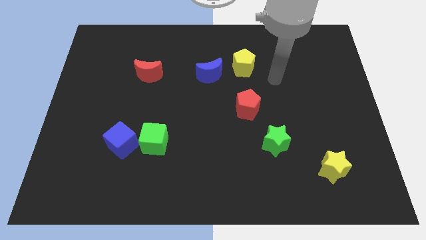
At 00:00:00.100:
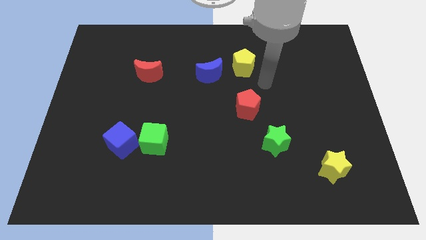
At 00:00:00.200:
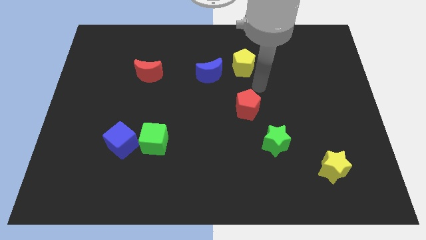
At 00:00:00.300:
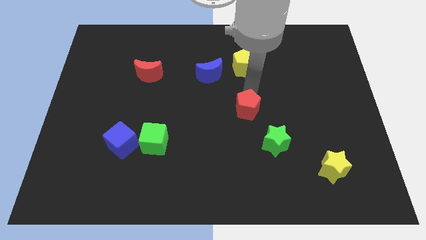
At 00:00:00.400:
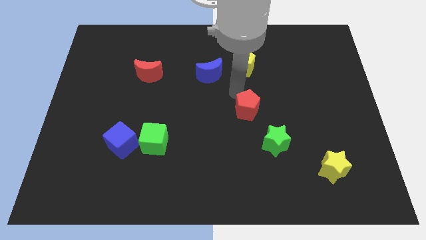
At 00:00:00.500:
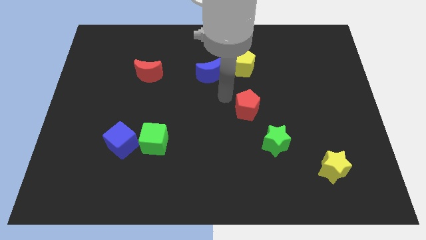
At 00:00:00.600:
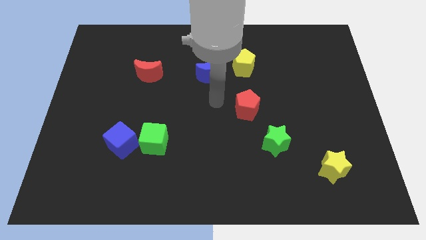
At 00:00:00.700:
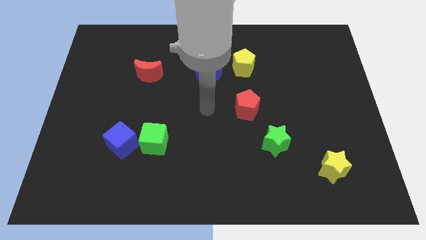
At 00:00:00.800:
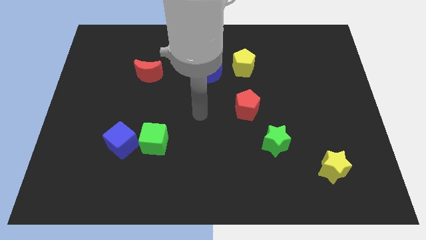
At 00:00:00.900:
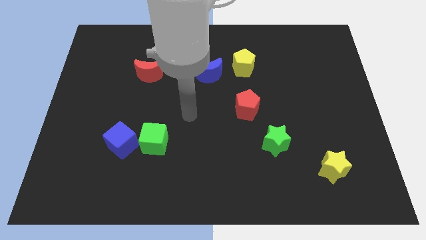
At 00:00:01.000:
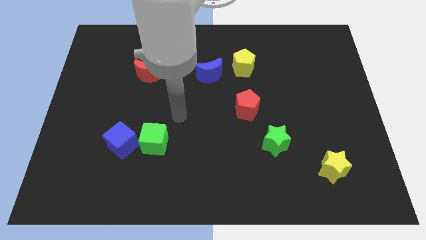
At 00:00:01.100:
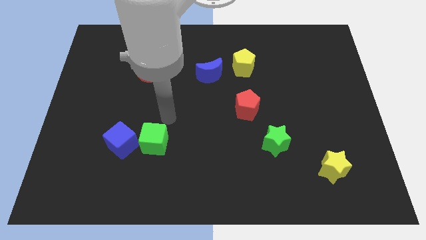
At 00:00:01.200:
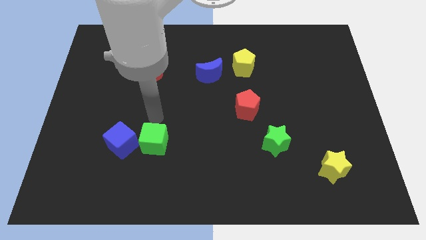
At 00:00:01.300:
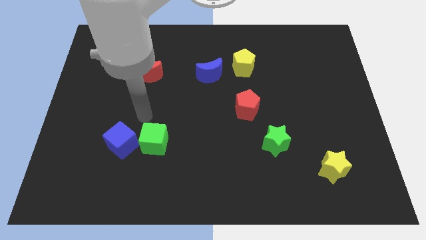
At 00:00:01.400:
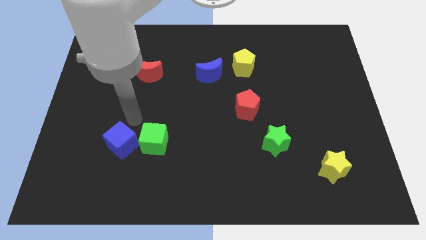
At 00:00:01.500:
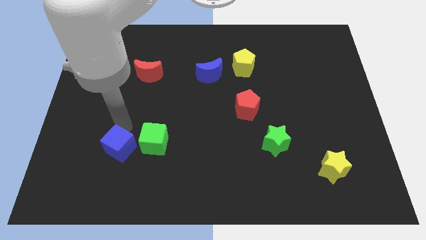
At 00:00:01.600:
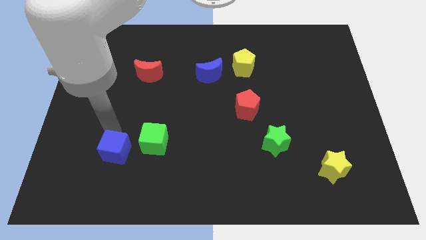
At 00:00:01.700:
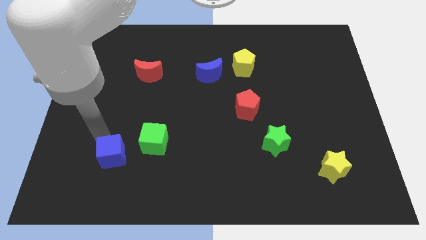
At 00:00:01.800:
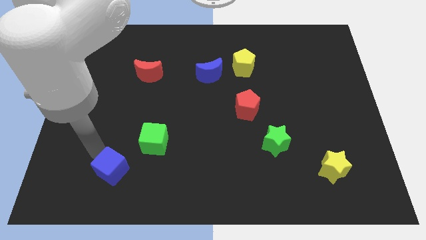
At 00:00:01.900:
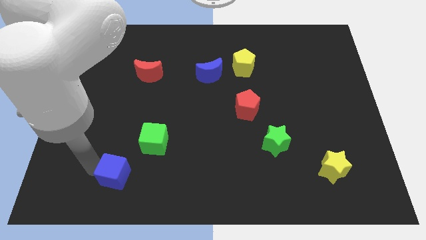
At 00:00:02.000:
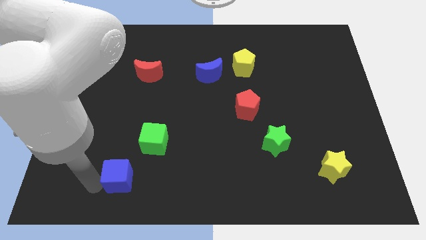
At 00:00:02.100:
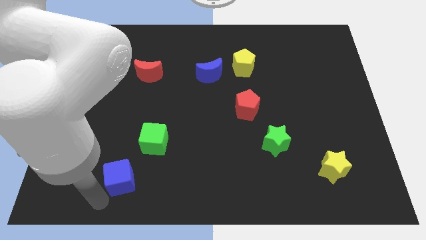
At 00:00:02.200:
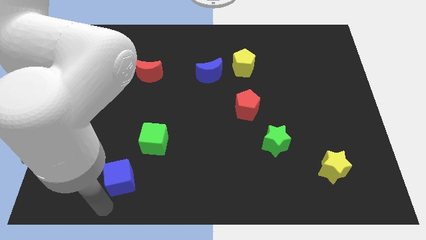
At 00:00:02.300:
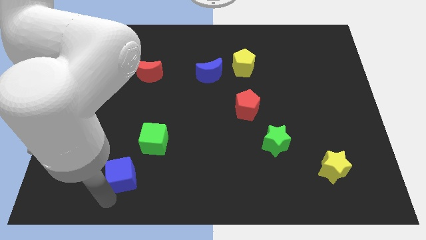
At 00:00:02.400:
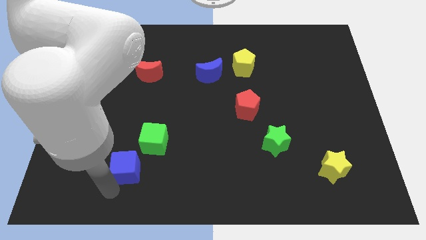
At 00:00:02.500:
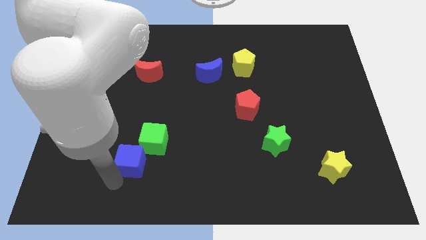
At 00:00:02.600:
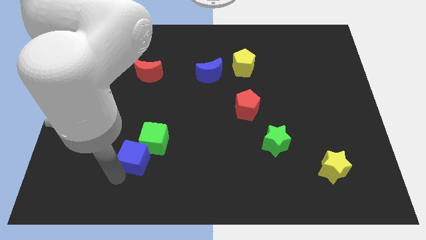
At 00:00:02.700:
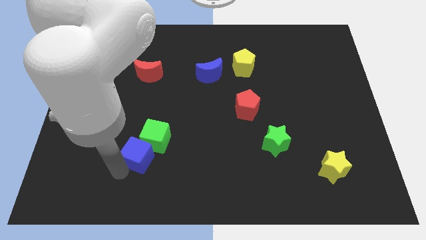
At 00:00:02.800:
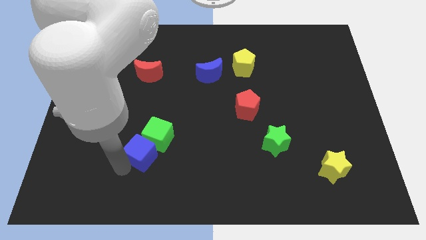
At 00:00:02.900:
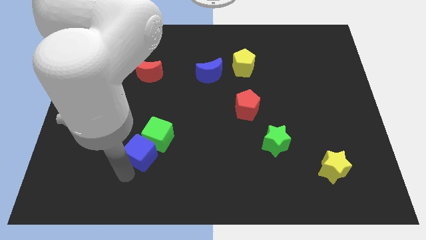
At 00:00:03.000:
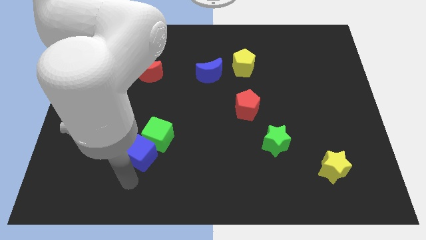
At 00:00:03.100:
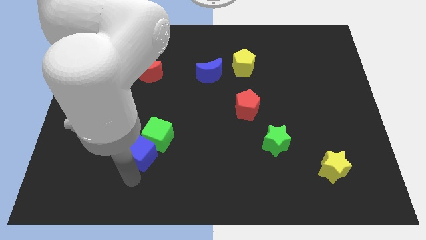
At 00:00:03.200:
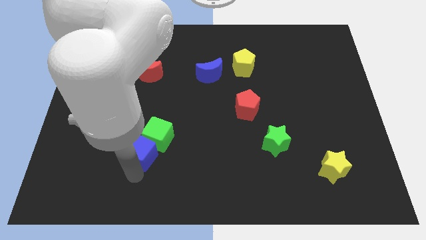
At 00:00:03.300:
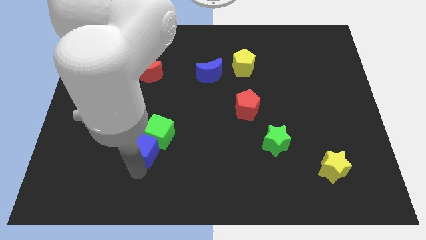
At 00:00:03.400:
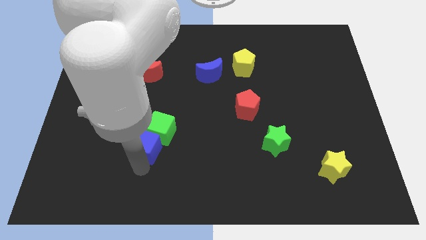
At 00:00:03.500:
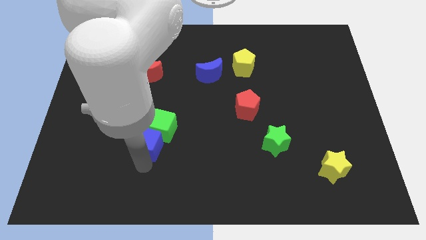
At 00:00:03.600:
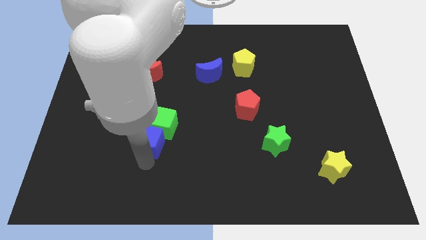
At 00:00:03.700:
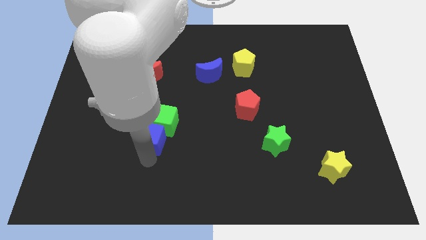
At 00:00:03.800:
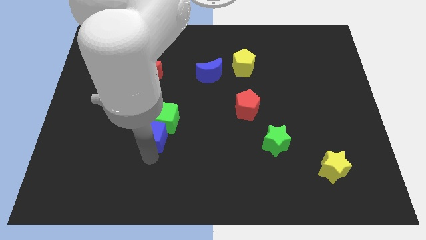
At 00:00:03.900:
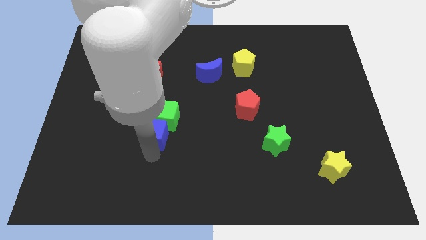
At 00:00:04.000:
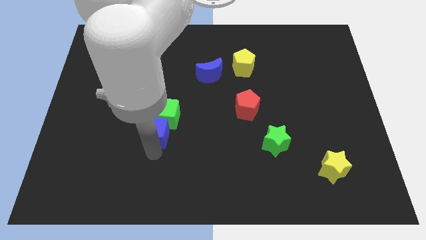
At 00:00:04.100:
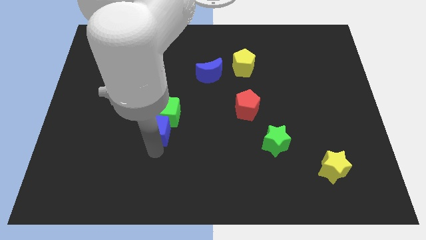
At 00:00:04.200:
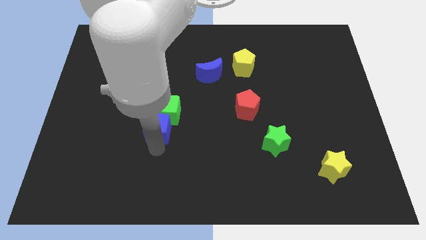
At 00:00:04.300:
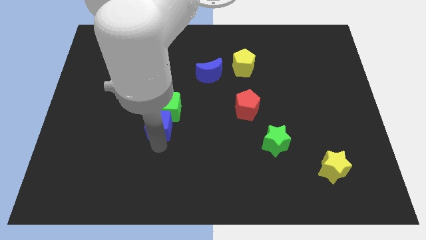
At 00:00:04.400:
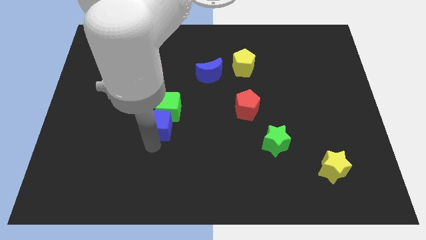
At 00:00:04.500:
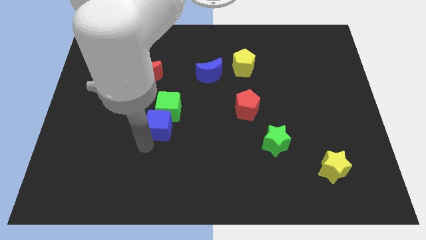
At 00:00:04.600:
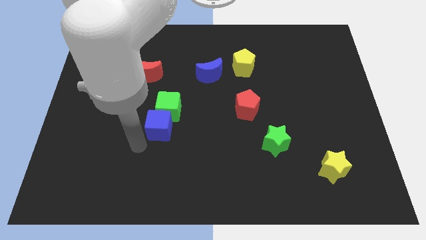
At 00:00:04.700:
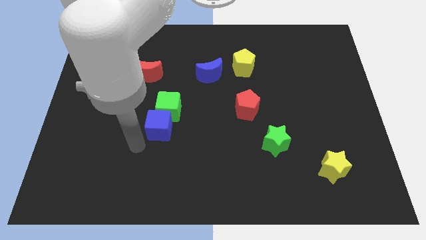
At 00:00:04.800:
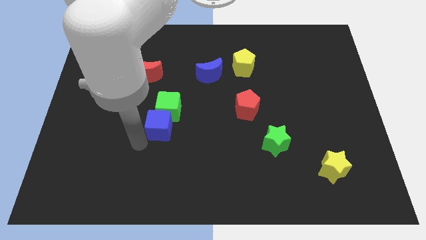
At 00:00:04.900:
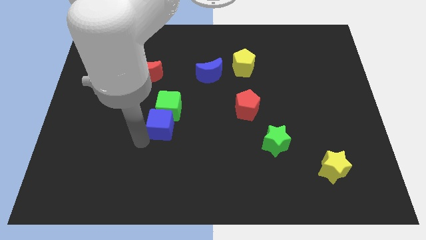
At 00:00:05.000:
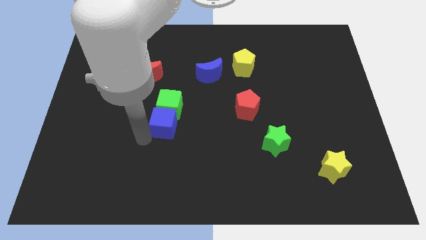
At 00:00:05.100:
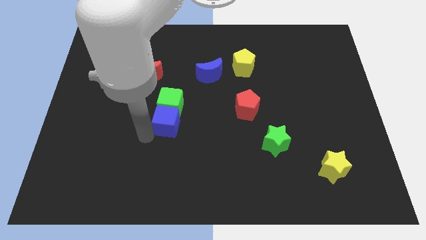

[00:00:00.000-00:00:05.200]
put the blue cube to the center

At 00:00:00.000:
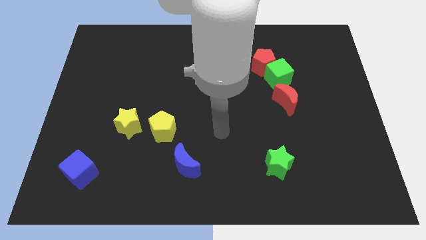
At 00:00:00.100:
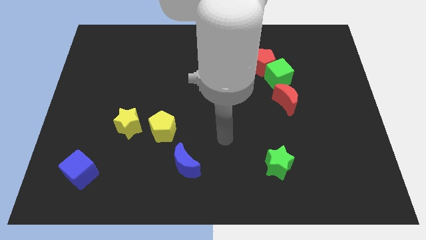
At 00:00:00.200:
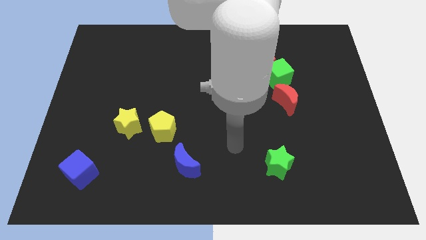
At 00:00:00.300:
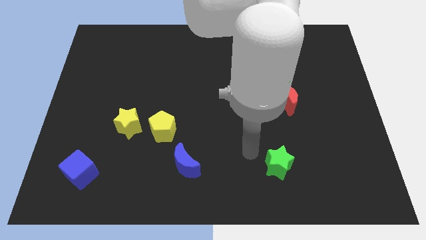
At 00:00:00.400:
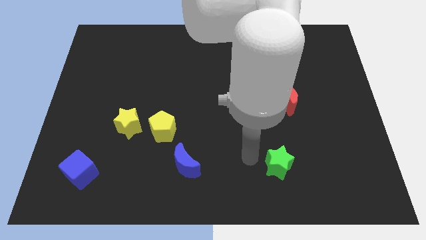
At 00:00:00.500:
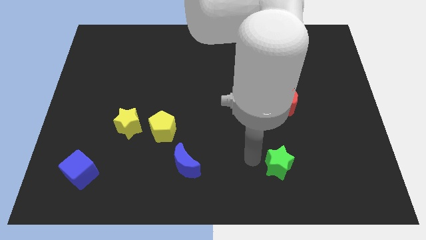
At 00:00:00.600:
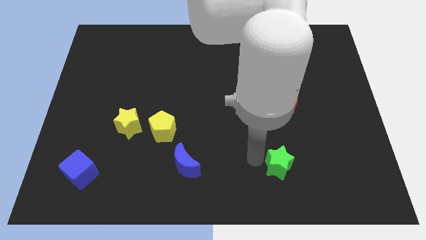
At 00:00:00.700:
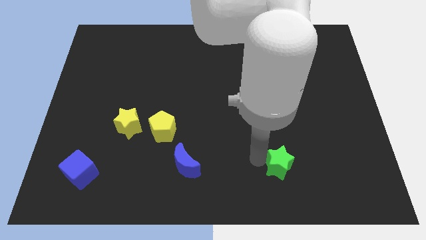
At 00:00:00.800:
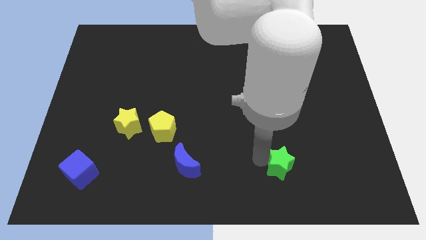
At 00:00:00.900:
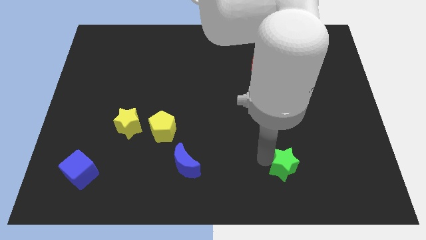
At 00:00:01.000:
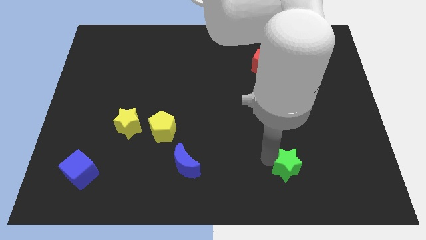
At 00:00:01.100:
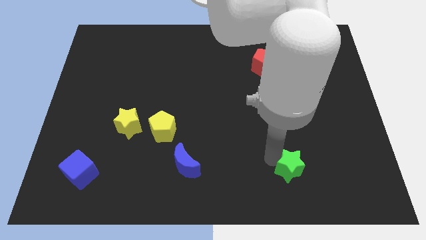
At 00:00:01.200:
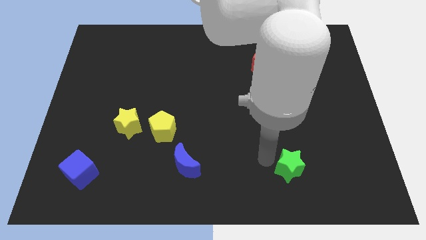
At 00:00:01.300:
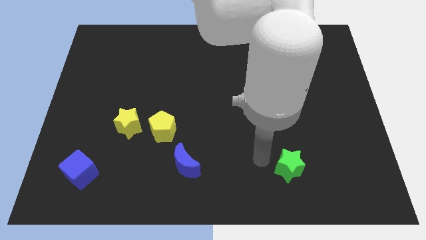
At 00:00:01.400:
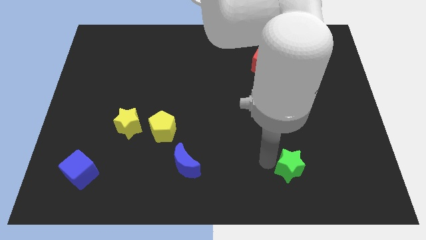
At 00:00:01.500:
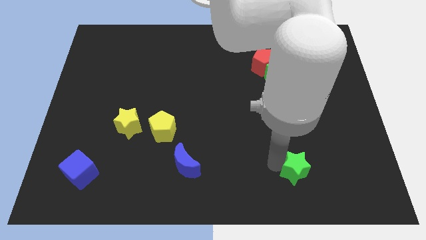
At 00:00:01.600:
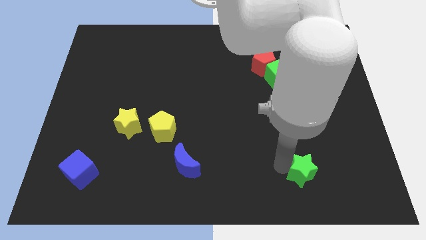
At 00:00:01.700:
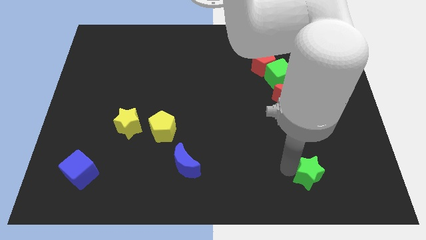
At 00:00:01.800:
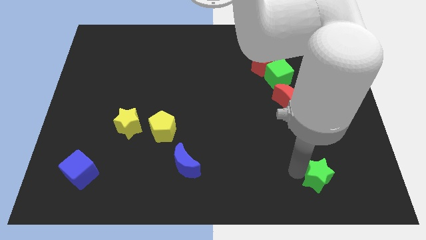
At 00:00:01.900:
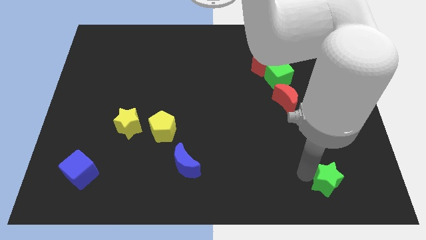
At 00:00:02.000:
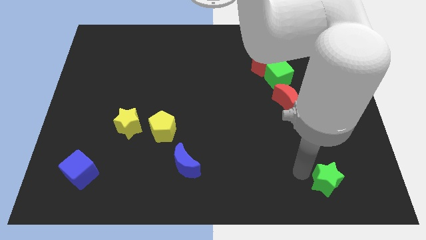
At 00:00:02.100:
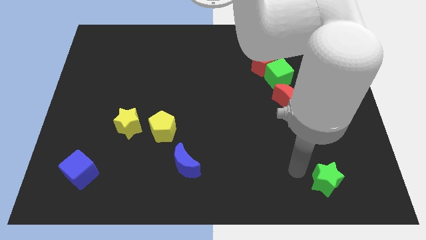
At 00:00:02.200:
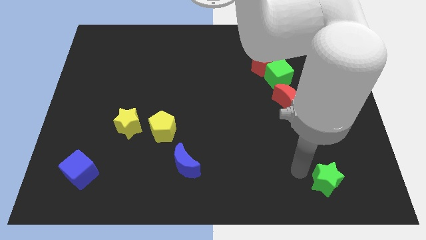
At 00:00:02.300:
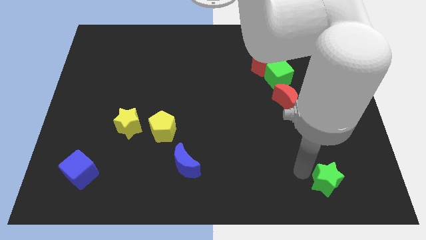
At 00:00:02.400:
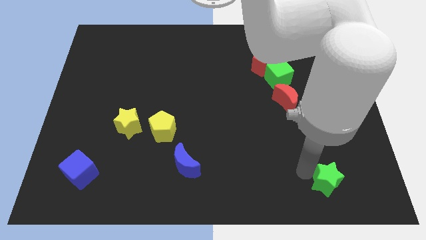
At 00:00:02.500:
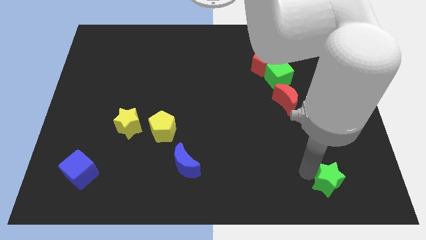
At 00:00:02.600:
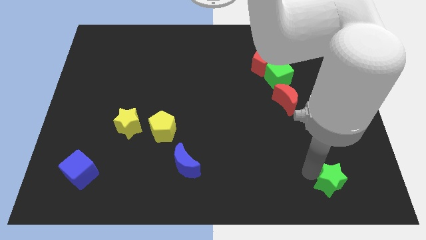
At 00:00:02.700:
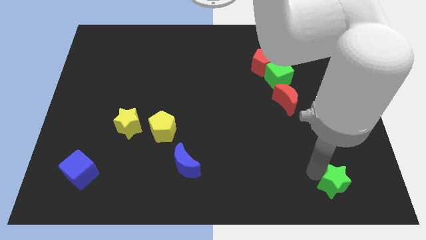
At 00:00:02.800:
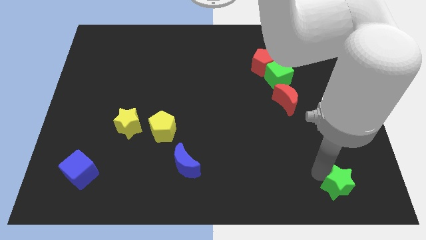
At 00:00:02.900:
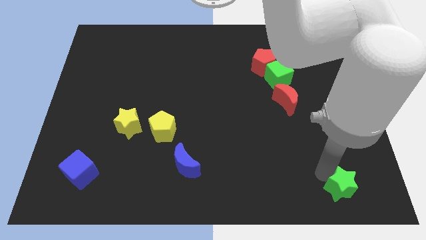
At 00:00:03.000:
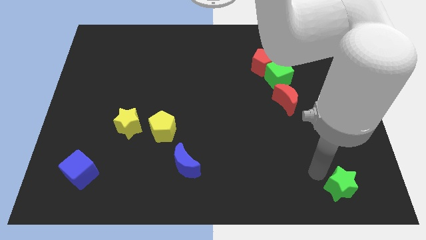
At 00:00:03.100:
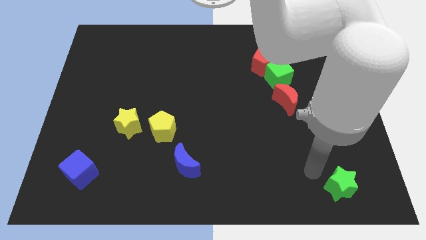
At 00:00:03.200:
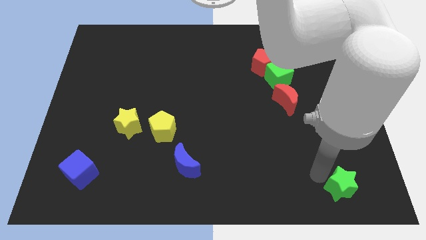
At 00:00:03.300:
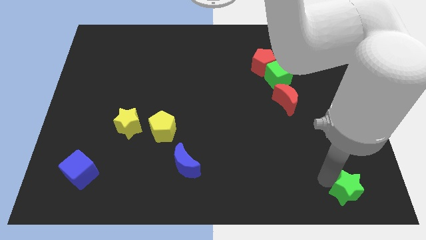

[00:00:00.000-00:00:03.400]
move the green star to the lower right corner
